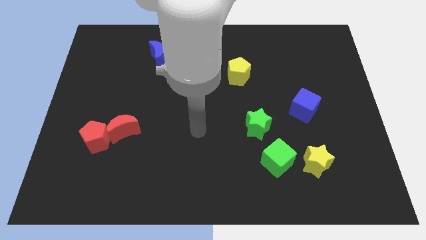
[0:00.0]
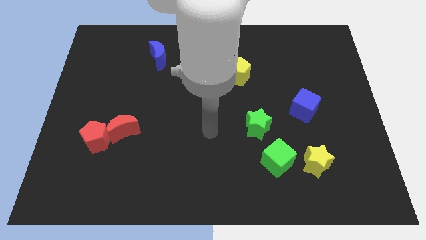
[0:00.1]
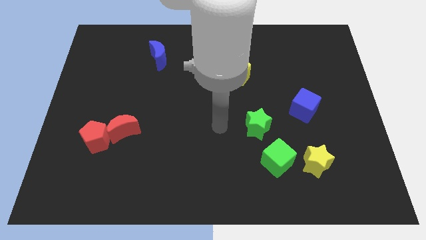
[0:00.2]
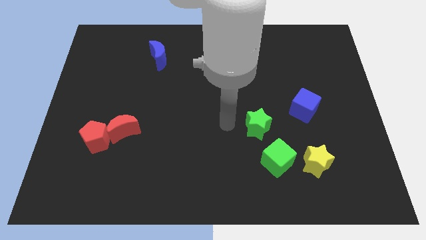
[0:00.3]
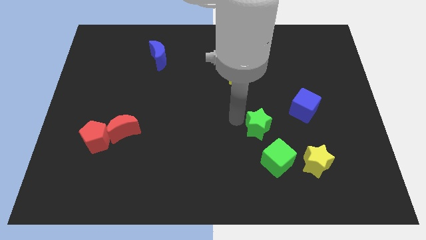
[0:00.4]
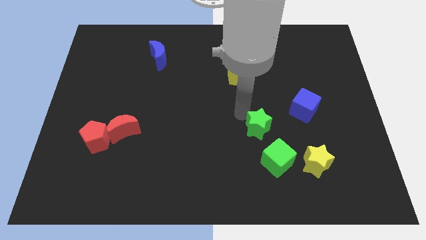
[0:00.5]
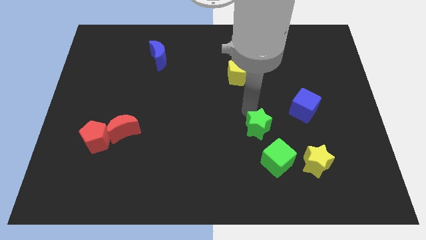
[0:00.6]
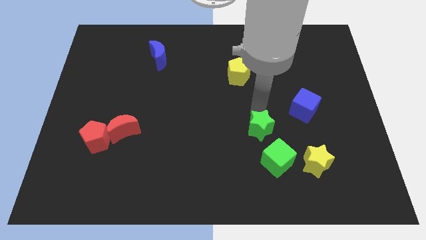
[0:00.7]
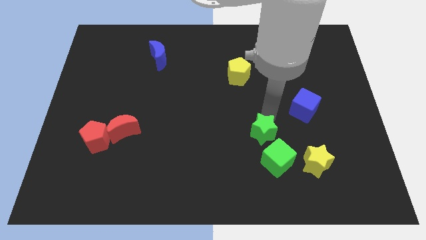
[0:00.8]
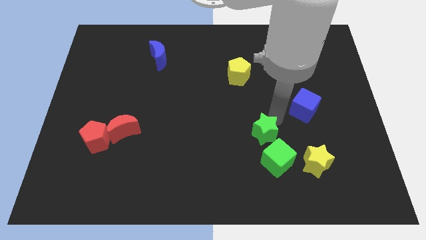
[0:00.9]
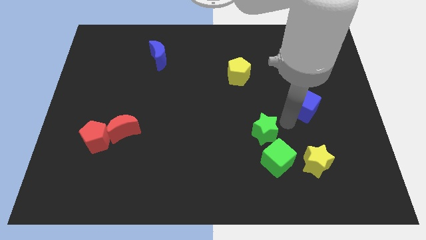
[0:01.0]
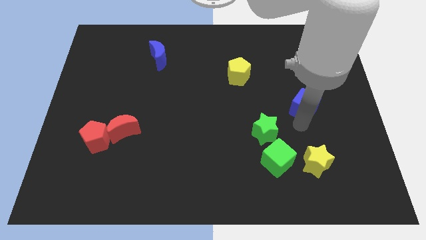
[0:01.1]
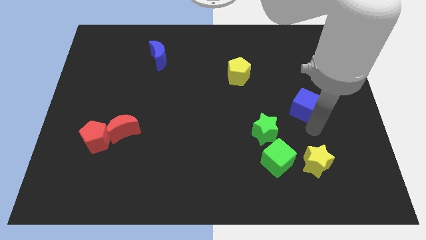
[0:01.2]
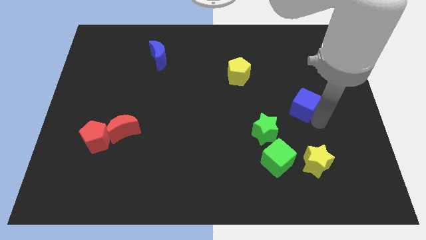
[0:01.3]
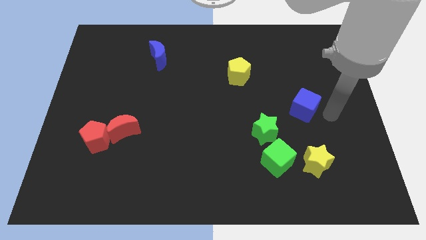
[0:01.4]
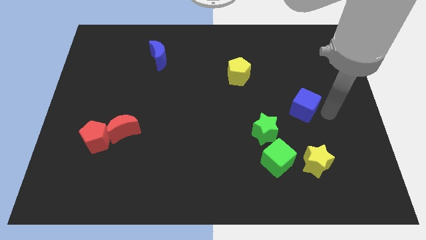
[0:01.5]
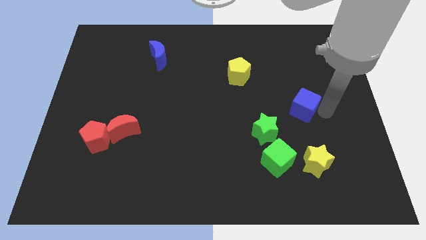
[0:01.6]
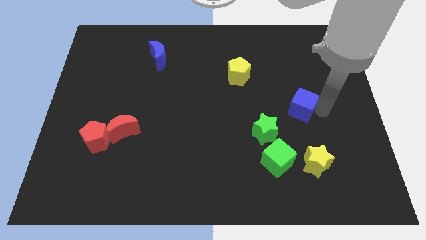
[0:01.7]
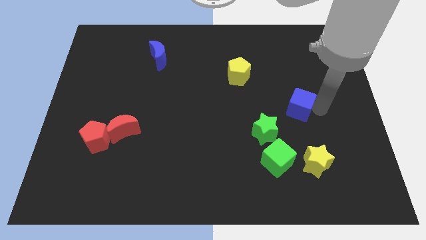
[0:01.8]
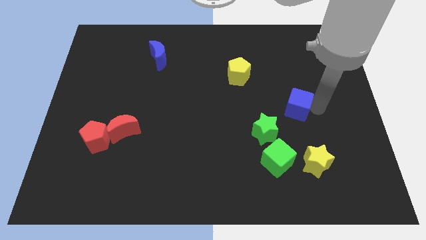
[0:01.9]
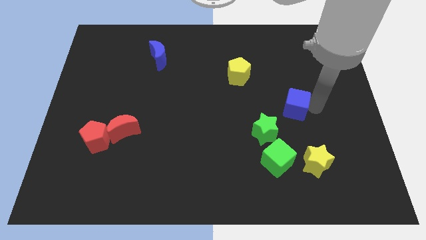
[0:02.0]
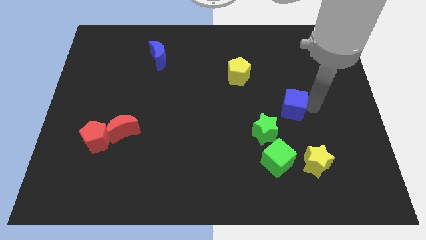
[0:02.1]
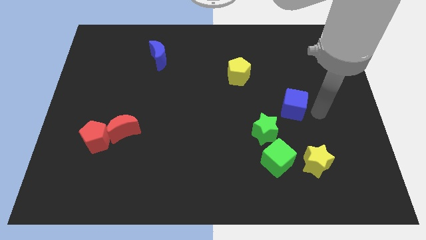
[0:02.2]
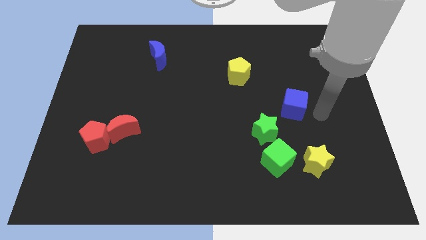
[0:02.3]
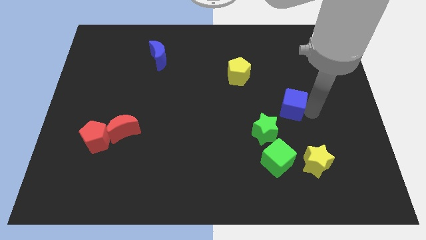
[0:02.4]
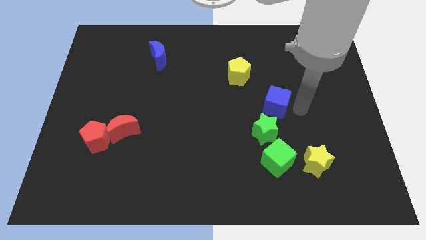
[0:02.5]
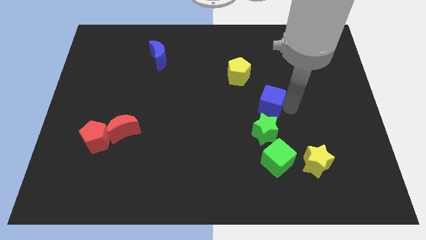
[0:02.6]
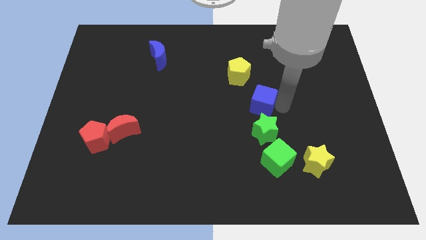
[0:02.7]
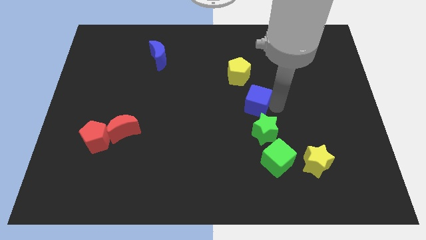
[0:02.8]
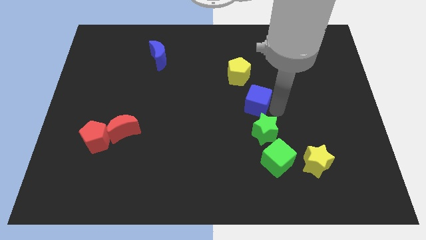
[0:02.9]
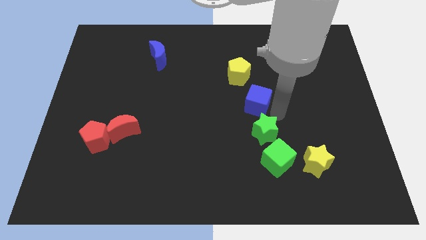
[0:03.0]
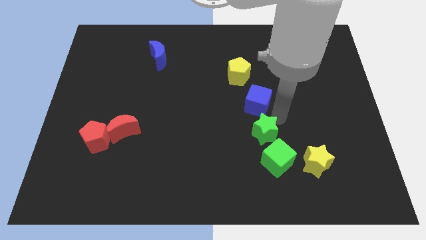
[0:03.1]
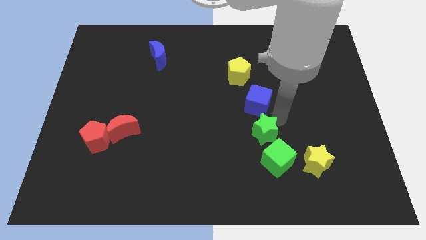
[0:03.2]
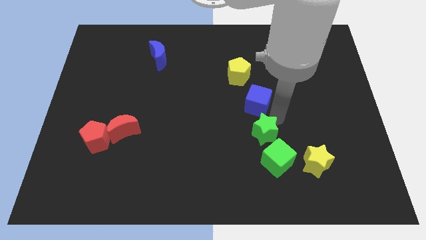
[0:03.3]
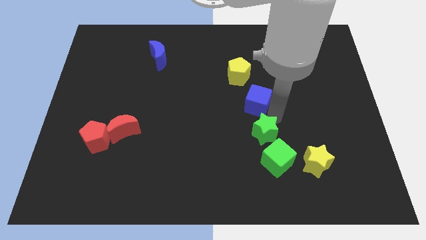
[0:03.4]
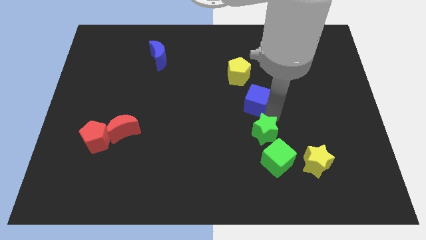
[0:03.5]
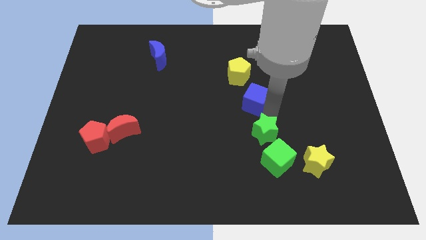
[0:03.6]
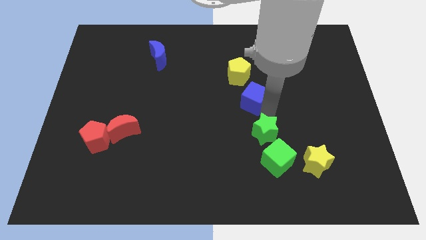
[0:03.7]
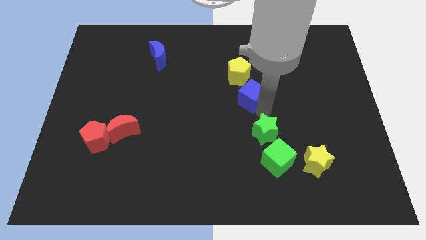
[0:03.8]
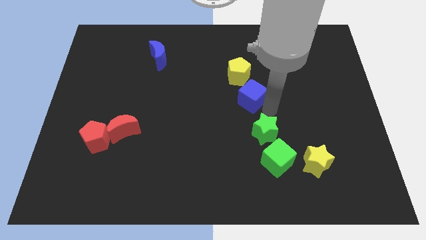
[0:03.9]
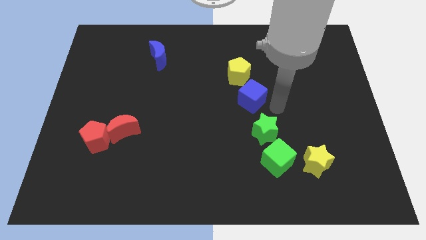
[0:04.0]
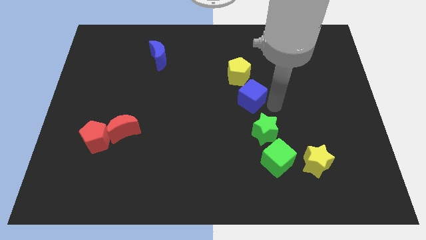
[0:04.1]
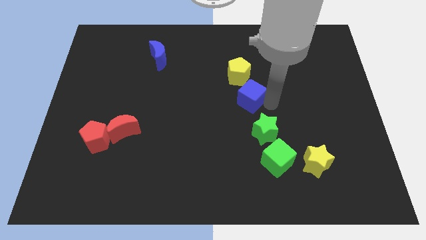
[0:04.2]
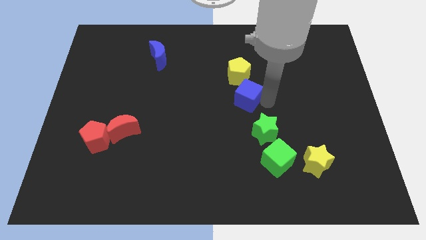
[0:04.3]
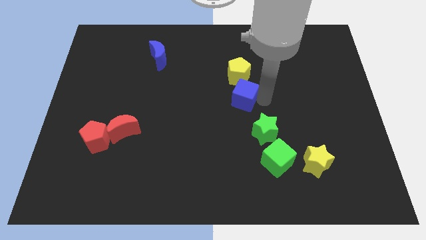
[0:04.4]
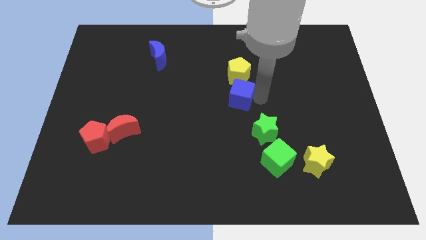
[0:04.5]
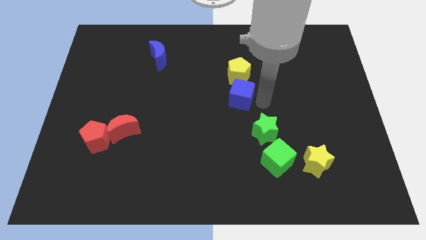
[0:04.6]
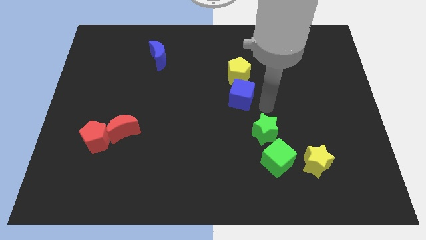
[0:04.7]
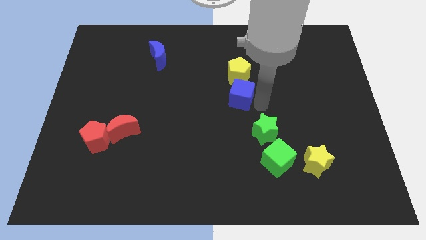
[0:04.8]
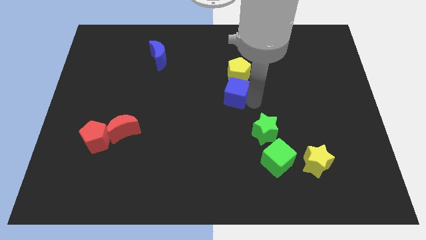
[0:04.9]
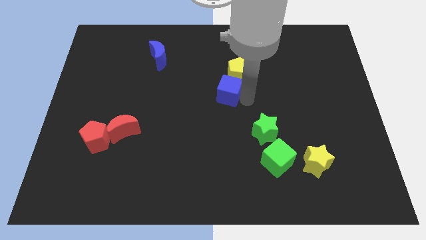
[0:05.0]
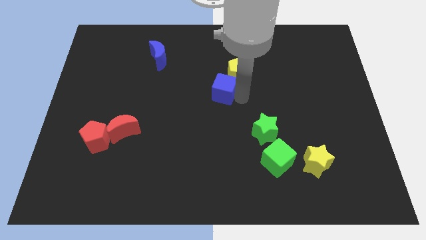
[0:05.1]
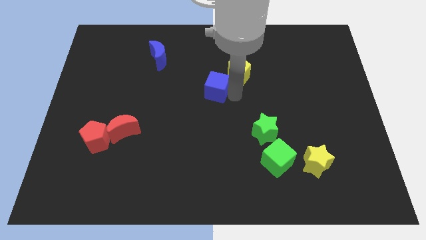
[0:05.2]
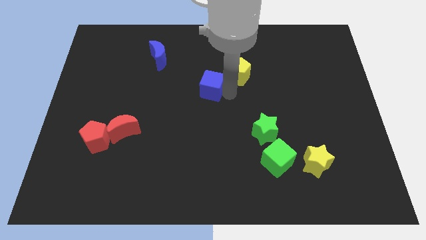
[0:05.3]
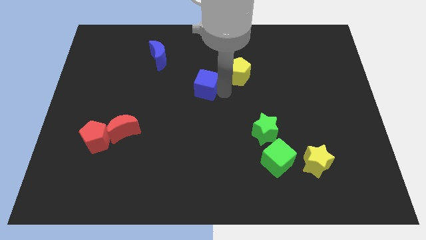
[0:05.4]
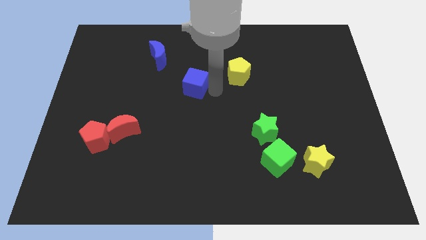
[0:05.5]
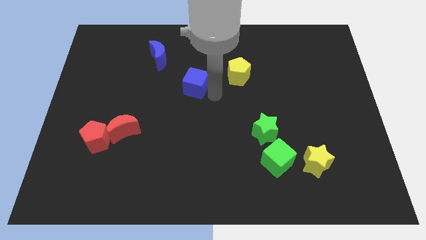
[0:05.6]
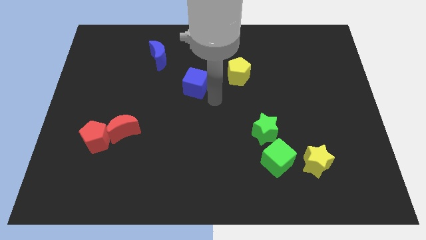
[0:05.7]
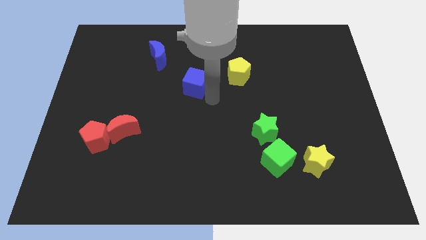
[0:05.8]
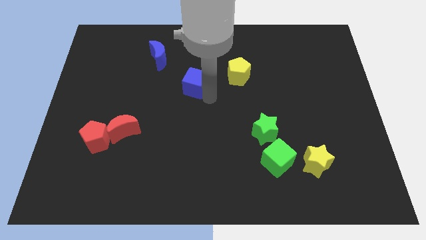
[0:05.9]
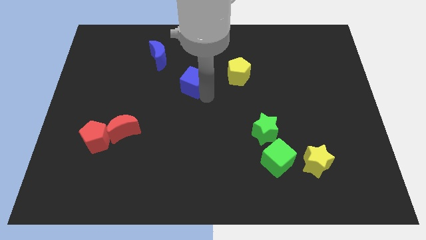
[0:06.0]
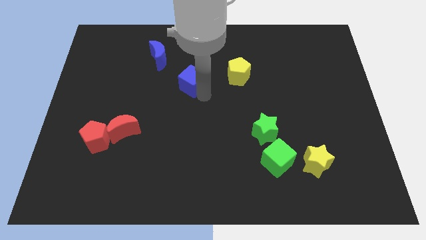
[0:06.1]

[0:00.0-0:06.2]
slide the blue cube to the bottom right of the blue moon

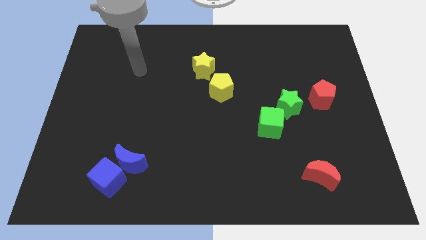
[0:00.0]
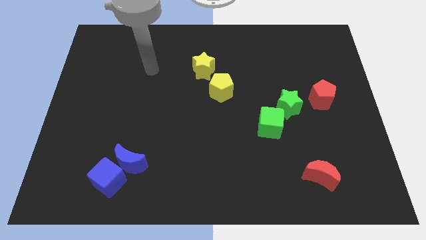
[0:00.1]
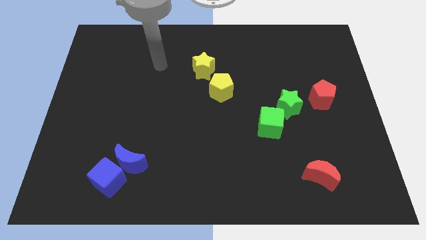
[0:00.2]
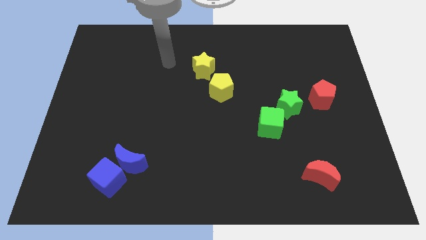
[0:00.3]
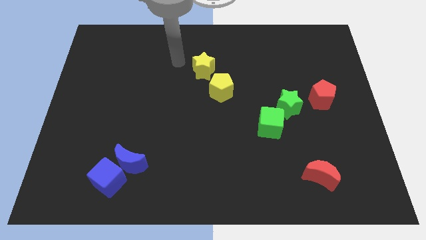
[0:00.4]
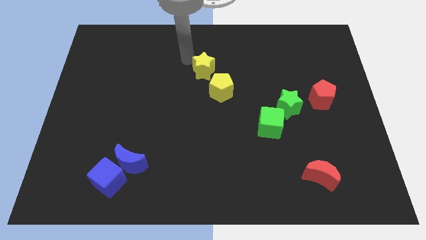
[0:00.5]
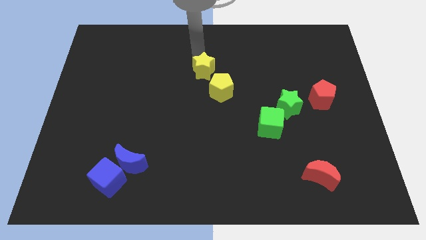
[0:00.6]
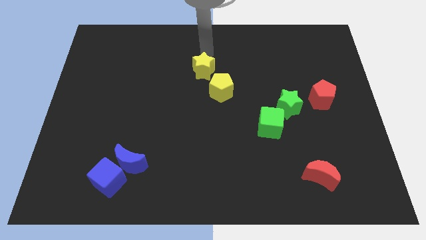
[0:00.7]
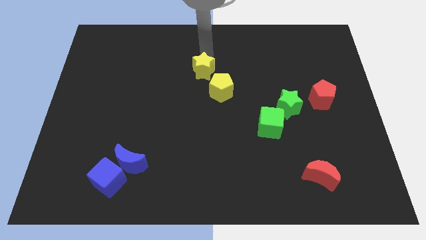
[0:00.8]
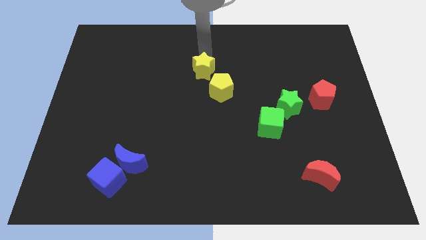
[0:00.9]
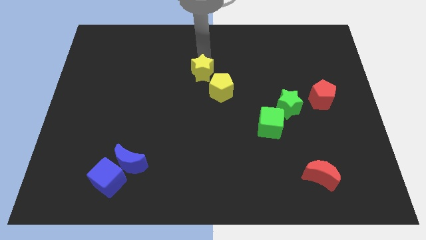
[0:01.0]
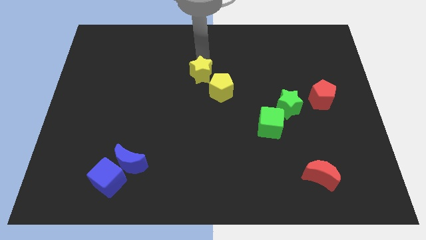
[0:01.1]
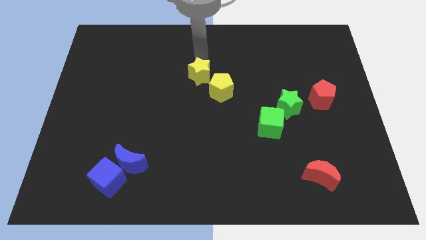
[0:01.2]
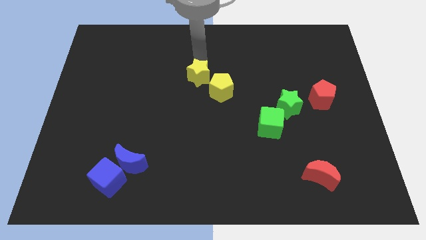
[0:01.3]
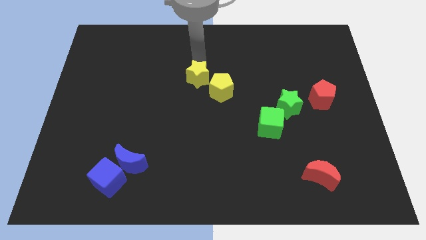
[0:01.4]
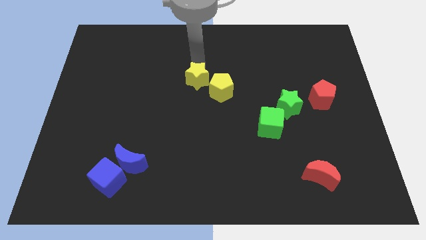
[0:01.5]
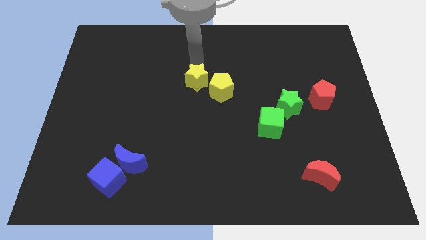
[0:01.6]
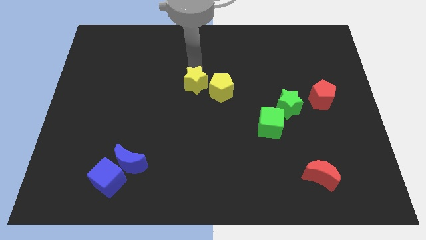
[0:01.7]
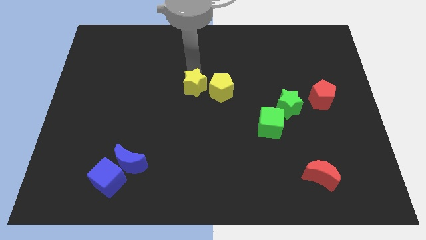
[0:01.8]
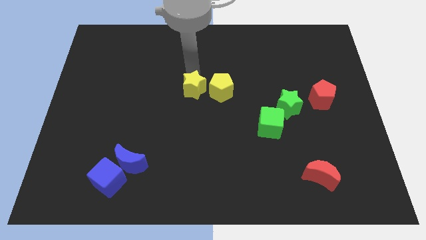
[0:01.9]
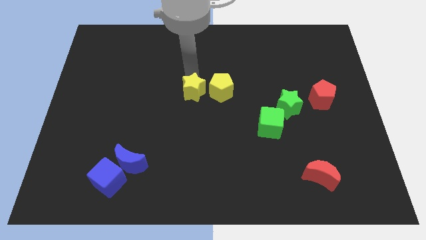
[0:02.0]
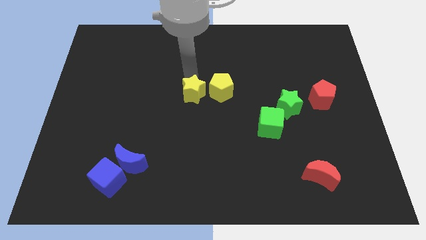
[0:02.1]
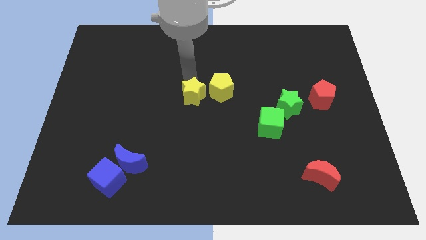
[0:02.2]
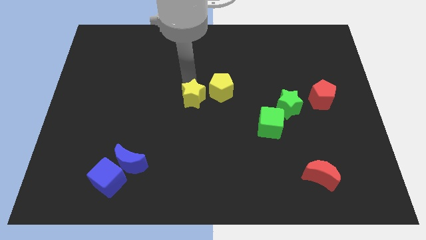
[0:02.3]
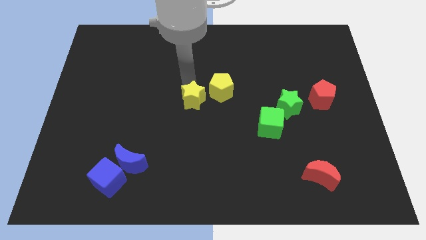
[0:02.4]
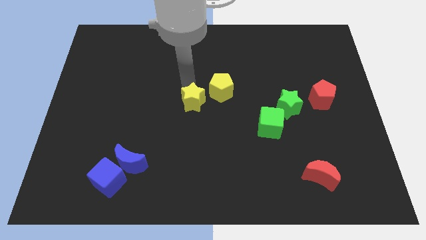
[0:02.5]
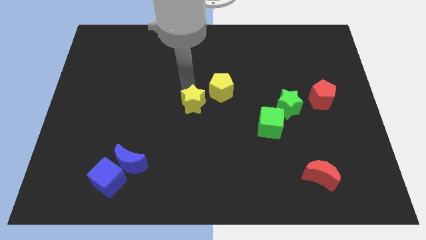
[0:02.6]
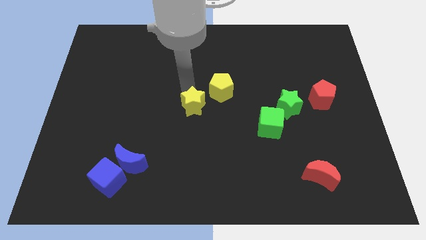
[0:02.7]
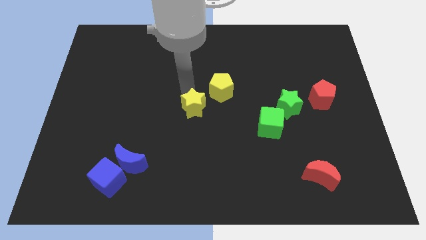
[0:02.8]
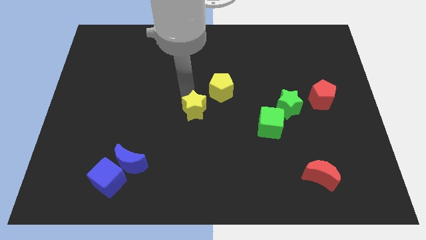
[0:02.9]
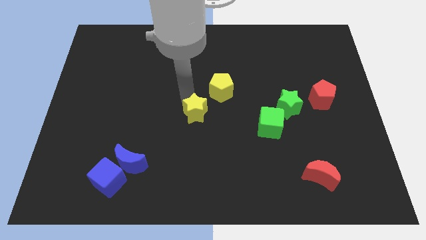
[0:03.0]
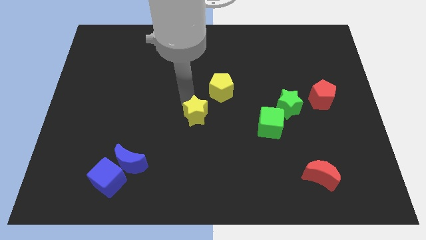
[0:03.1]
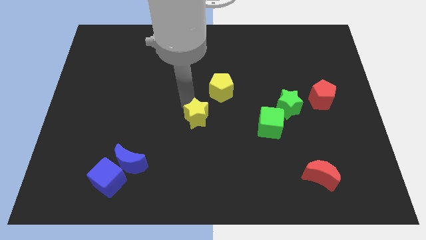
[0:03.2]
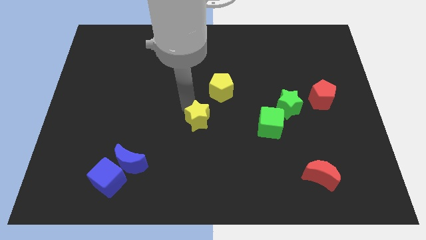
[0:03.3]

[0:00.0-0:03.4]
push the yellow star just left of the green cube
